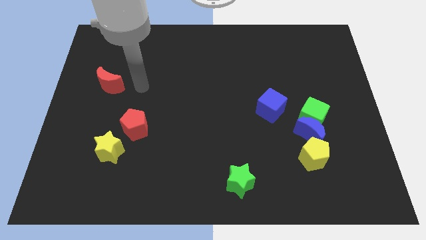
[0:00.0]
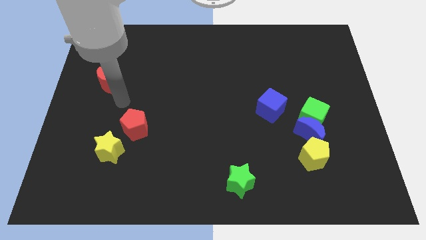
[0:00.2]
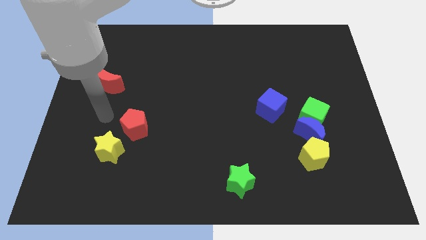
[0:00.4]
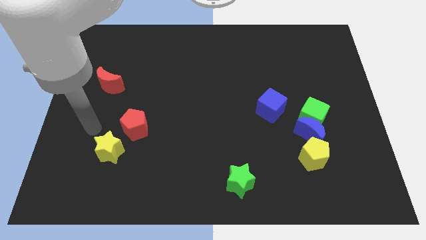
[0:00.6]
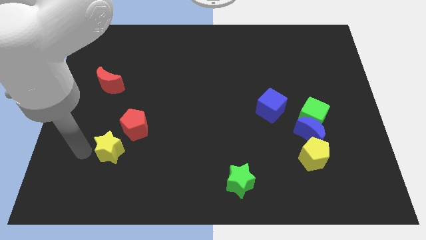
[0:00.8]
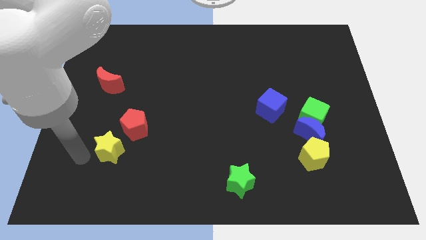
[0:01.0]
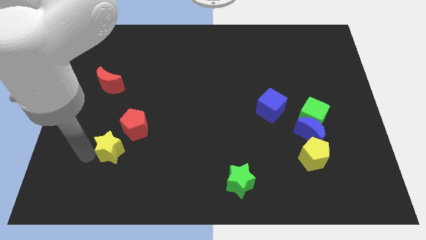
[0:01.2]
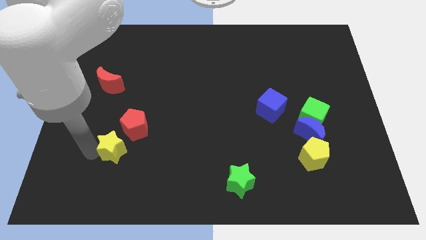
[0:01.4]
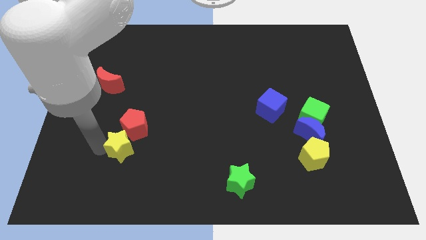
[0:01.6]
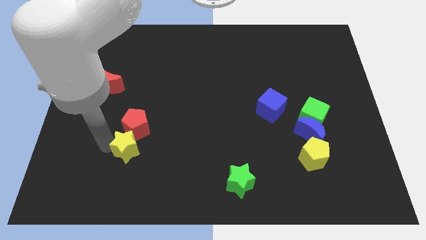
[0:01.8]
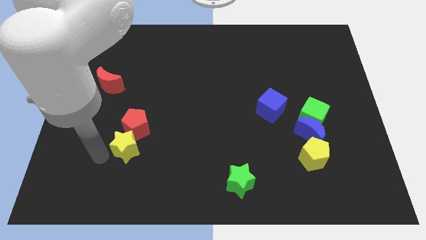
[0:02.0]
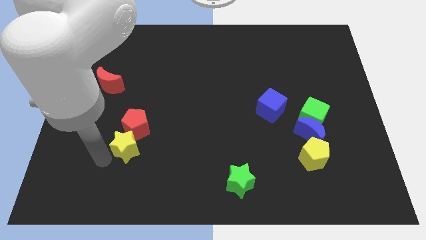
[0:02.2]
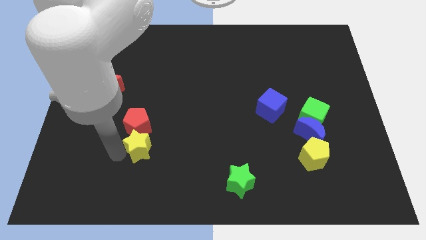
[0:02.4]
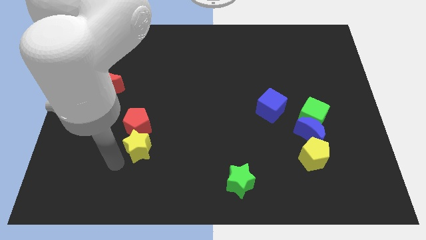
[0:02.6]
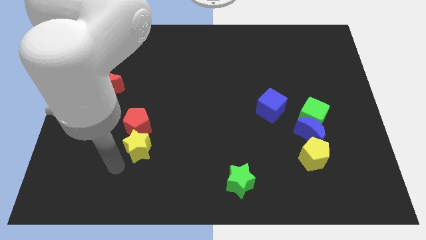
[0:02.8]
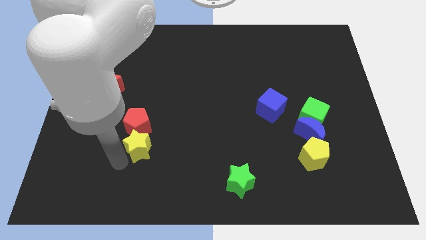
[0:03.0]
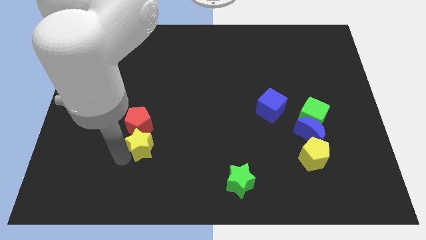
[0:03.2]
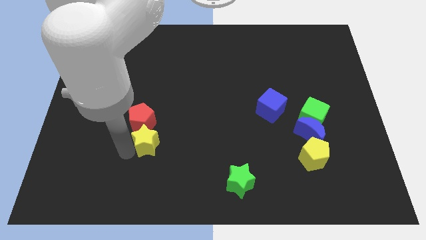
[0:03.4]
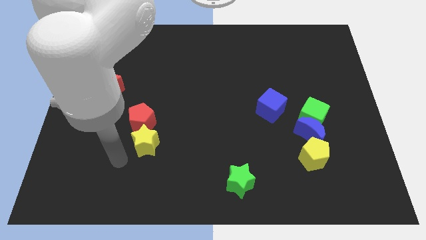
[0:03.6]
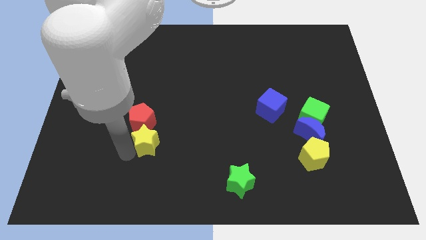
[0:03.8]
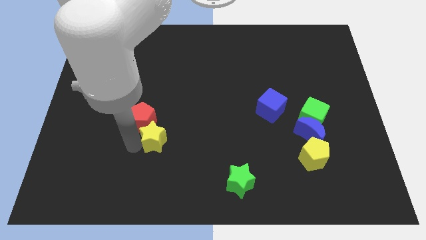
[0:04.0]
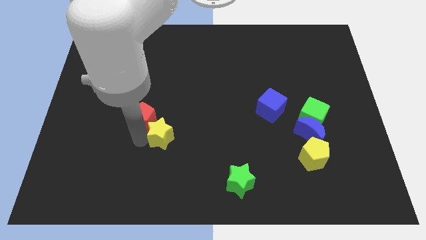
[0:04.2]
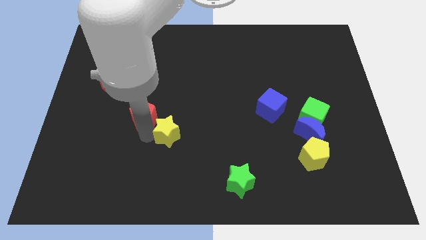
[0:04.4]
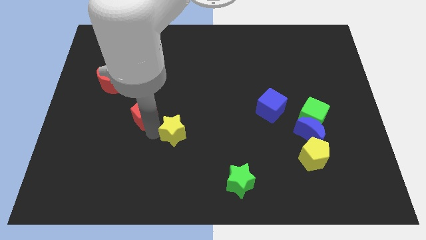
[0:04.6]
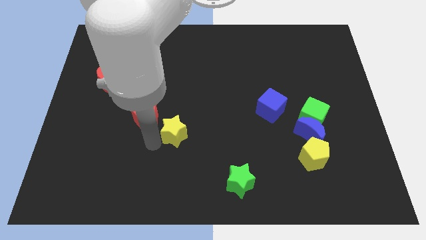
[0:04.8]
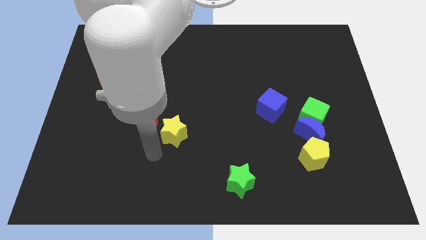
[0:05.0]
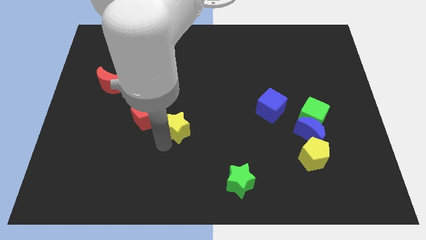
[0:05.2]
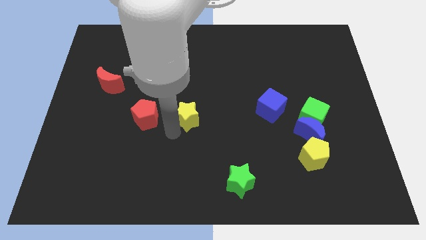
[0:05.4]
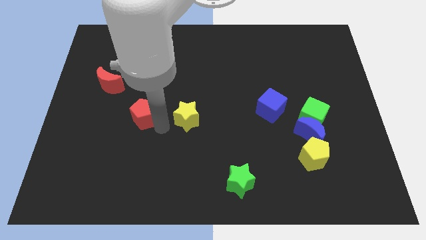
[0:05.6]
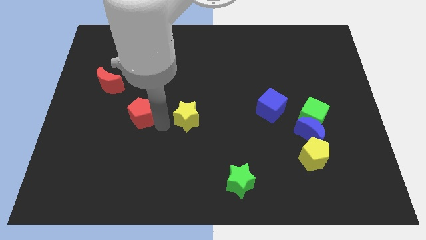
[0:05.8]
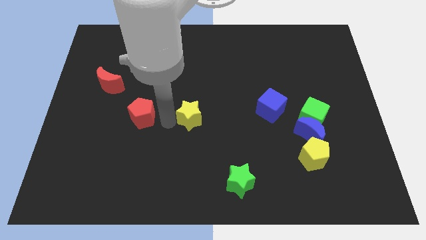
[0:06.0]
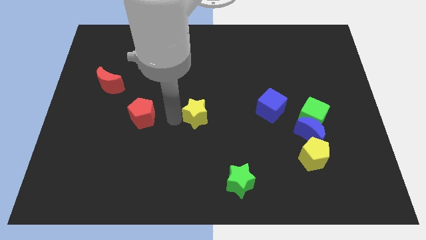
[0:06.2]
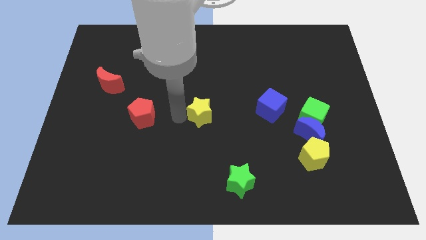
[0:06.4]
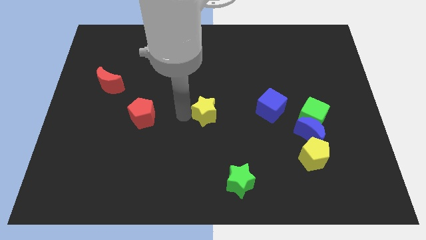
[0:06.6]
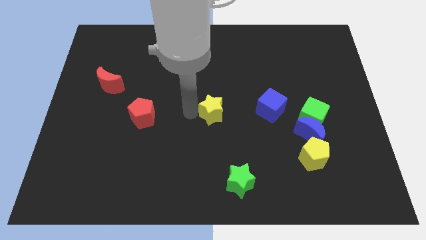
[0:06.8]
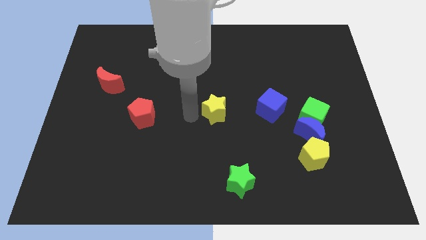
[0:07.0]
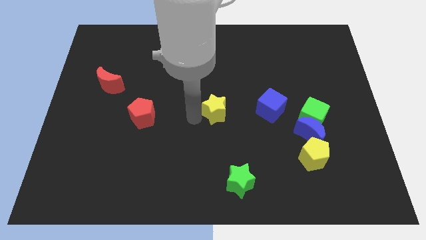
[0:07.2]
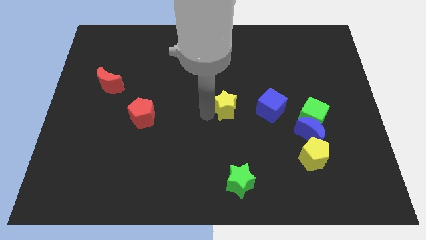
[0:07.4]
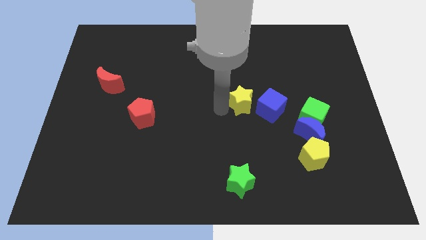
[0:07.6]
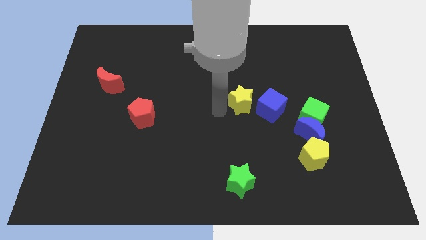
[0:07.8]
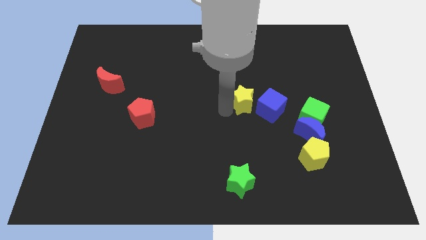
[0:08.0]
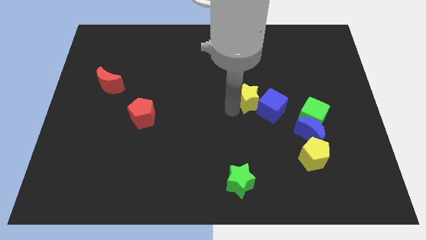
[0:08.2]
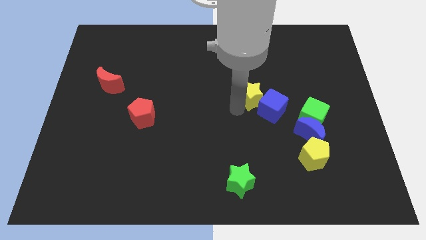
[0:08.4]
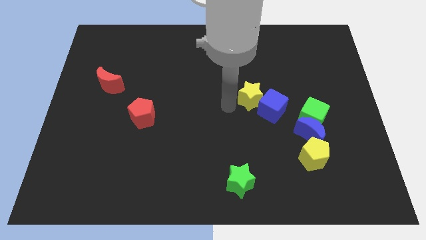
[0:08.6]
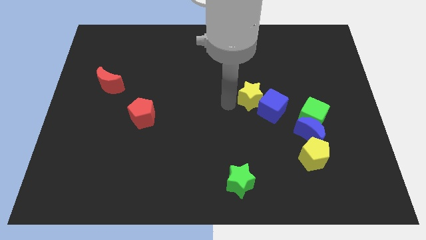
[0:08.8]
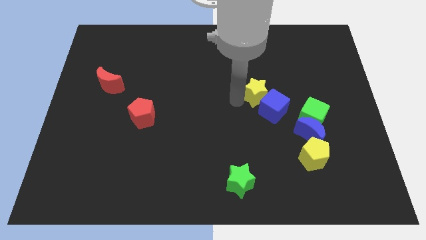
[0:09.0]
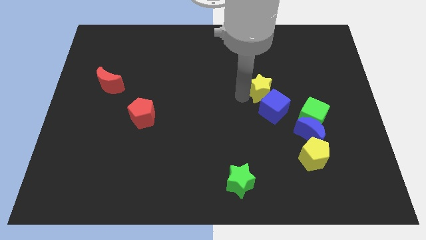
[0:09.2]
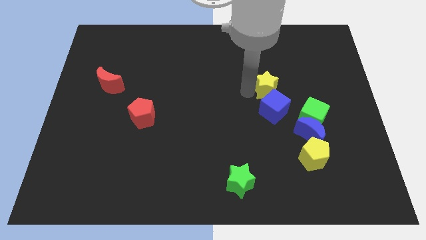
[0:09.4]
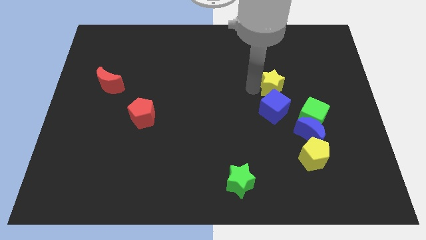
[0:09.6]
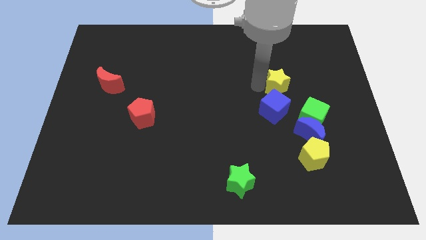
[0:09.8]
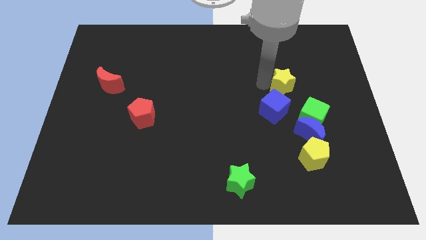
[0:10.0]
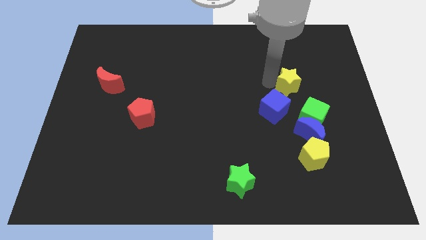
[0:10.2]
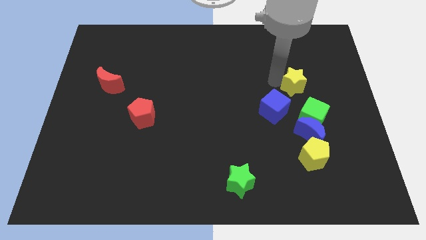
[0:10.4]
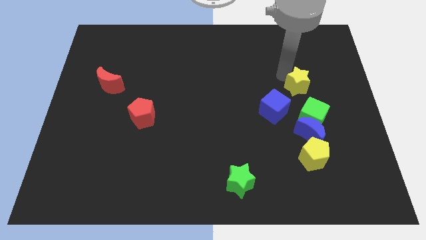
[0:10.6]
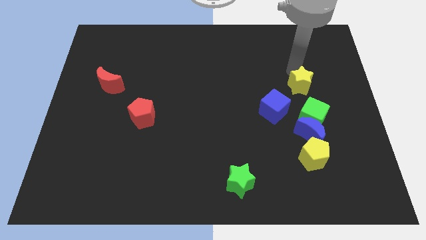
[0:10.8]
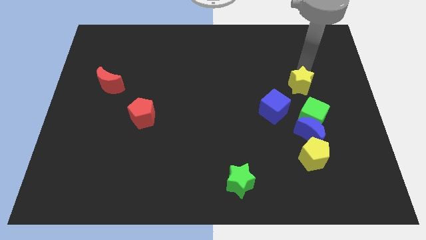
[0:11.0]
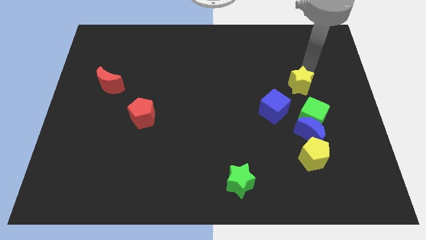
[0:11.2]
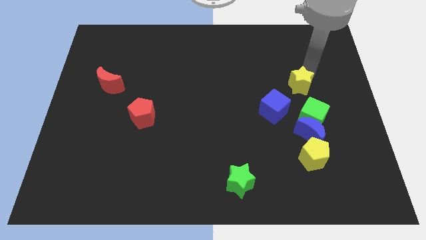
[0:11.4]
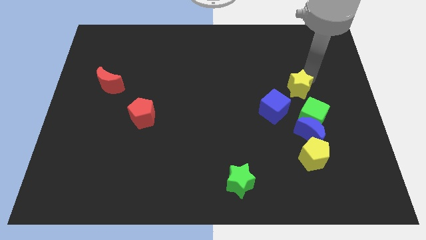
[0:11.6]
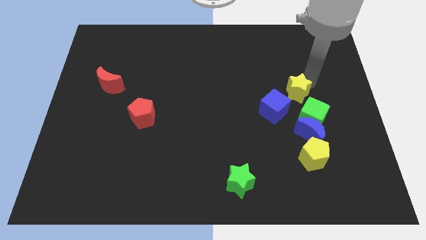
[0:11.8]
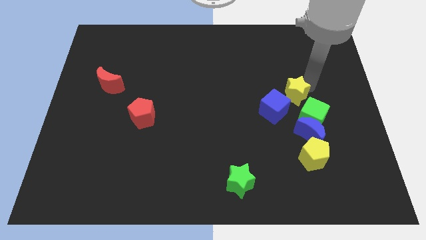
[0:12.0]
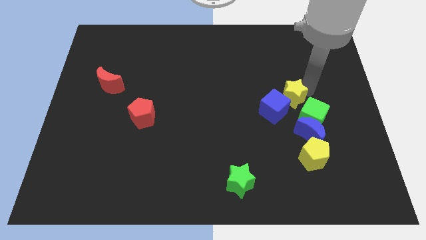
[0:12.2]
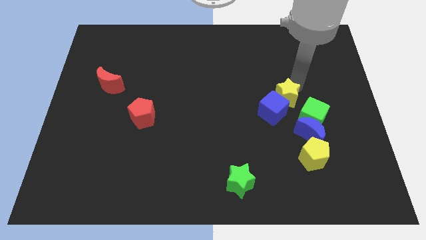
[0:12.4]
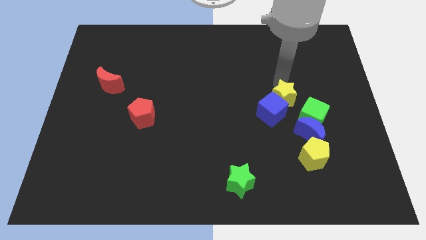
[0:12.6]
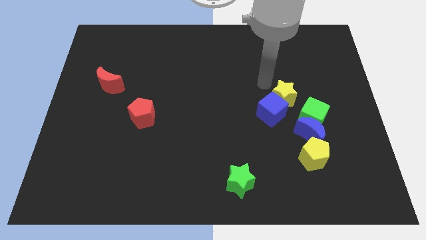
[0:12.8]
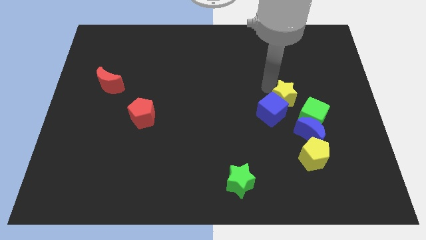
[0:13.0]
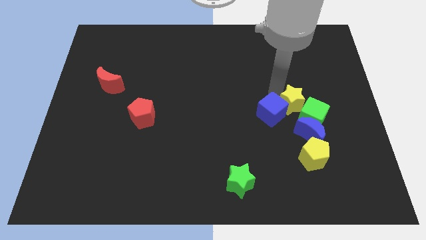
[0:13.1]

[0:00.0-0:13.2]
slide the yellow star to the green cube

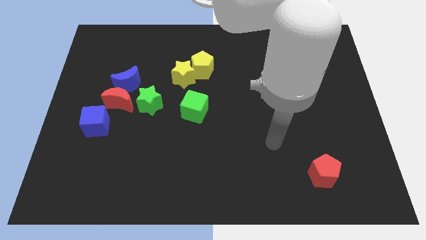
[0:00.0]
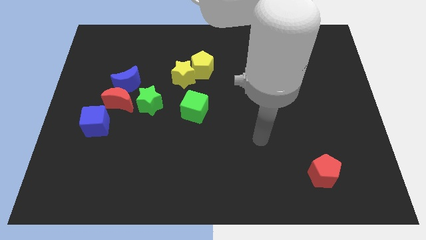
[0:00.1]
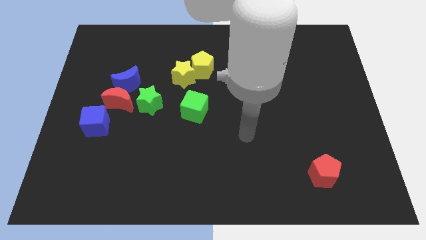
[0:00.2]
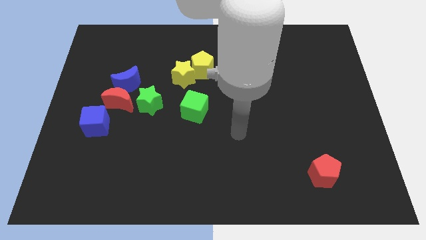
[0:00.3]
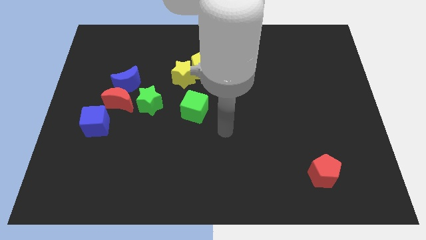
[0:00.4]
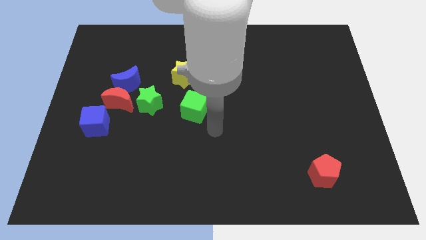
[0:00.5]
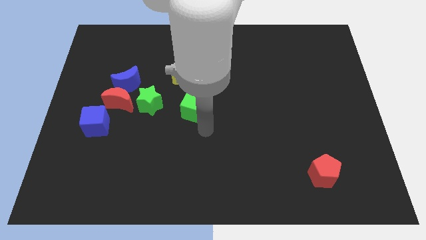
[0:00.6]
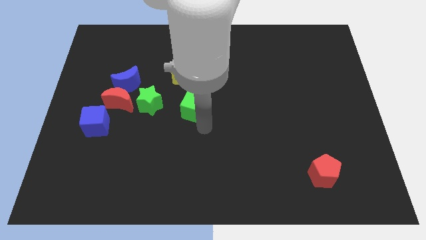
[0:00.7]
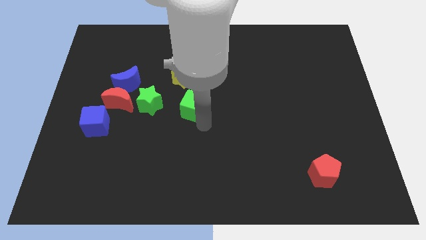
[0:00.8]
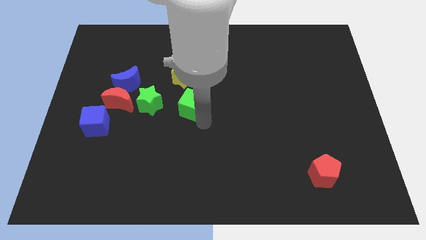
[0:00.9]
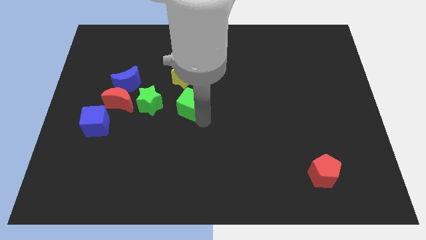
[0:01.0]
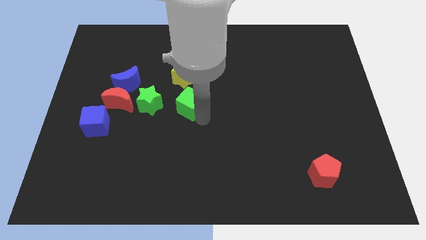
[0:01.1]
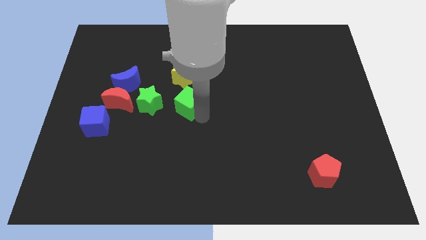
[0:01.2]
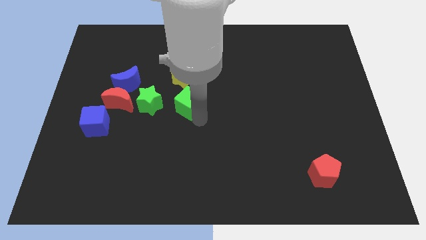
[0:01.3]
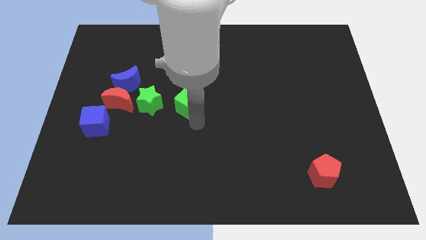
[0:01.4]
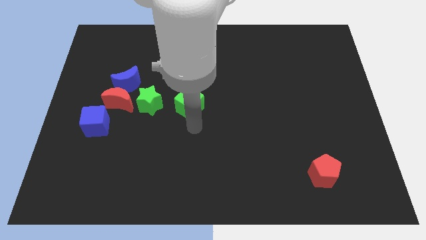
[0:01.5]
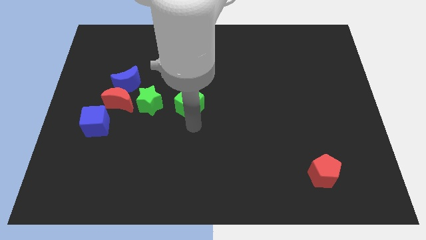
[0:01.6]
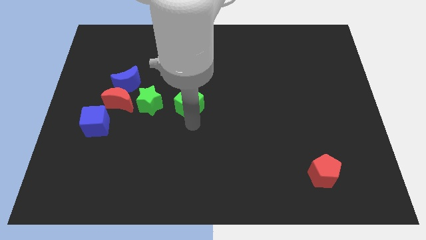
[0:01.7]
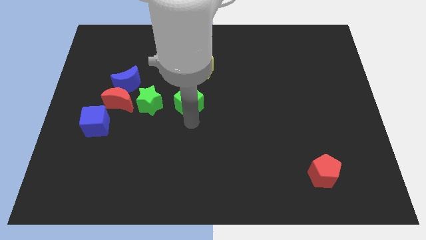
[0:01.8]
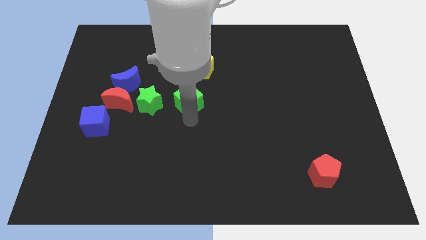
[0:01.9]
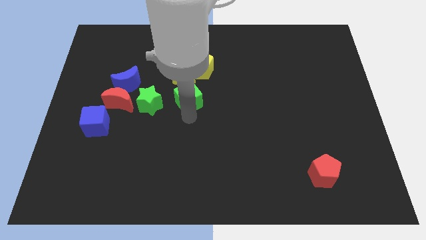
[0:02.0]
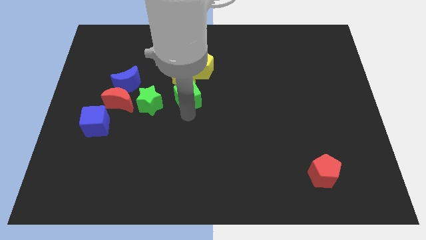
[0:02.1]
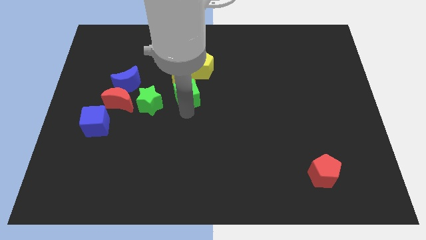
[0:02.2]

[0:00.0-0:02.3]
put the green cube close to the yellow star
